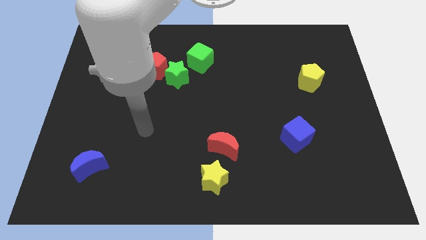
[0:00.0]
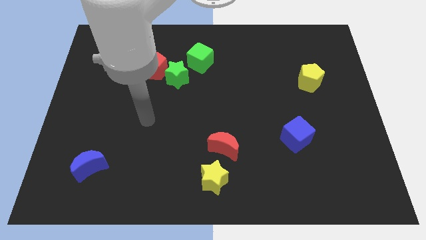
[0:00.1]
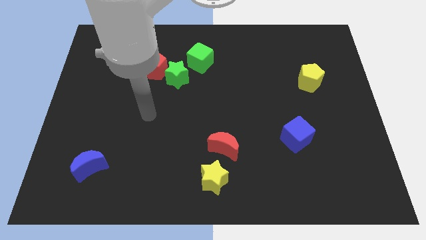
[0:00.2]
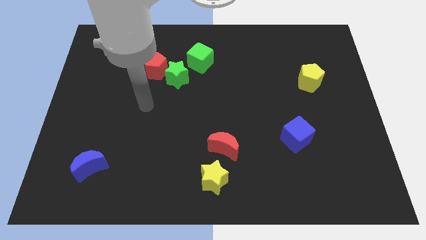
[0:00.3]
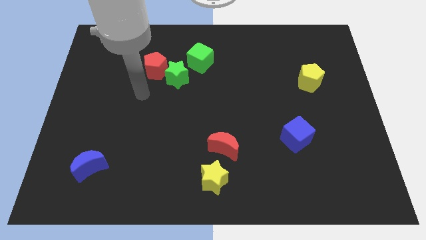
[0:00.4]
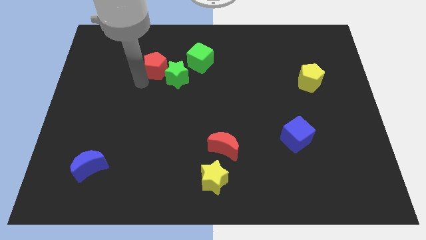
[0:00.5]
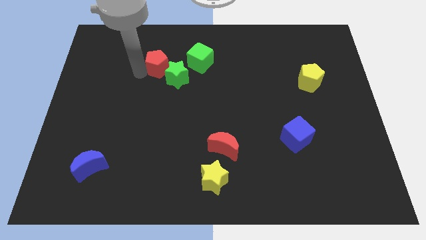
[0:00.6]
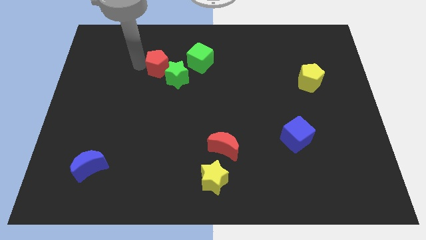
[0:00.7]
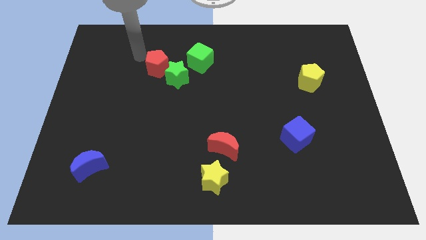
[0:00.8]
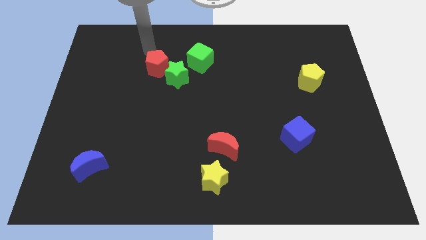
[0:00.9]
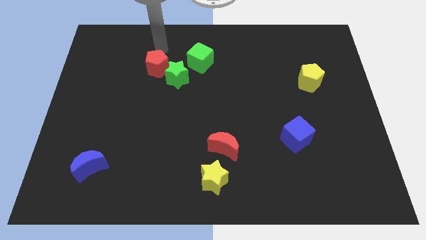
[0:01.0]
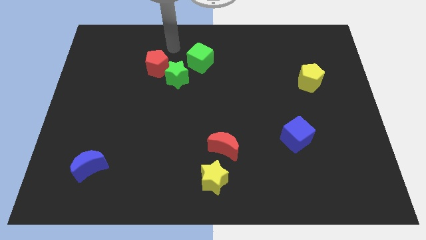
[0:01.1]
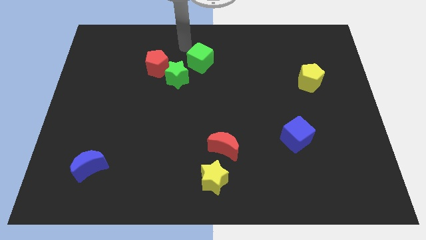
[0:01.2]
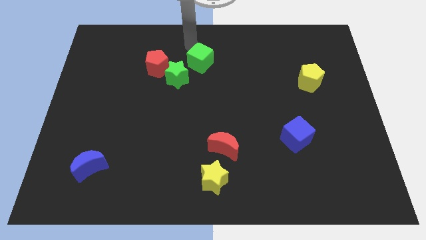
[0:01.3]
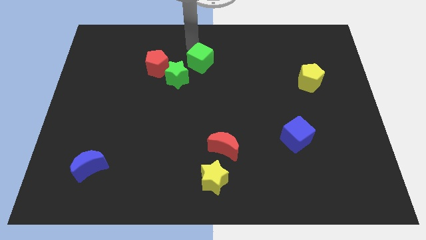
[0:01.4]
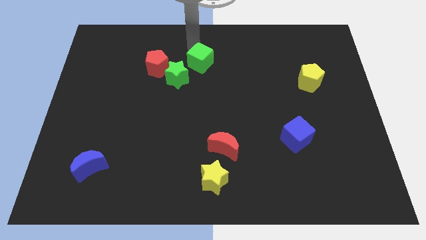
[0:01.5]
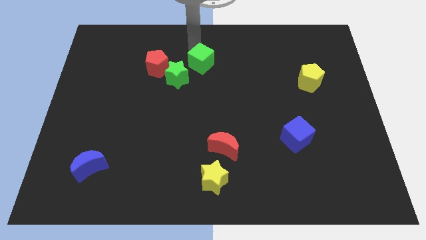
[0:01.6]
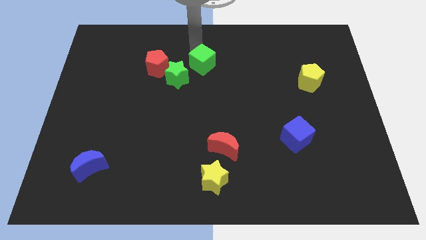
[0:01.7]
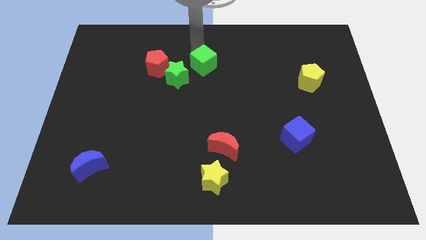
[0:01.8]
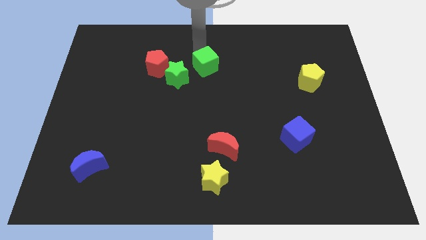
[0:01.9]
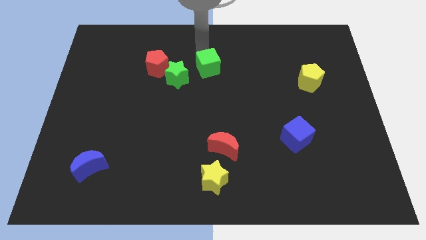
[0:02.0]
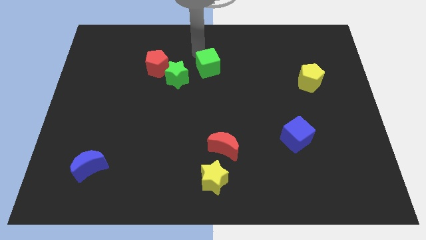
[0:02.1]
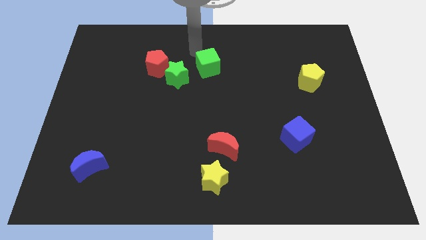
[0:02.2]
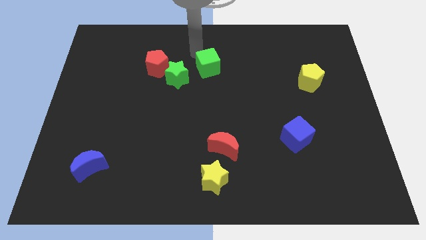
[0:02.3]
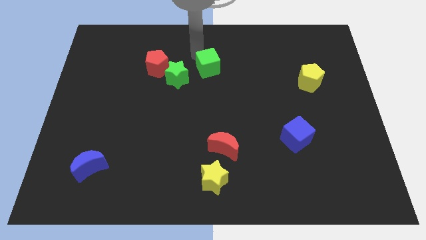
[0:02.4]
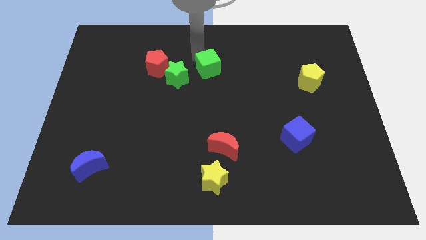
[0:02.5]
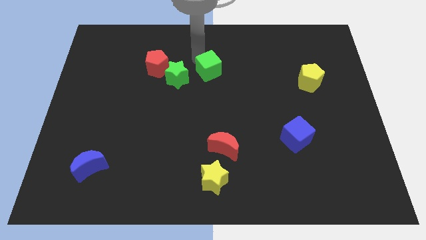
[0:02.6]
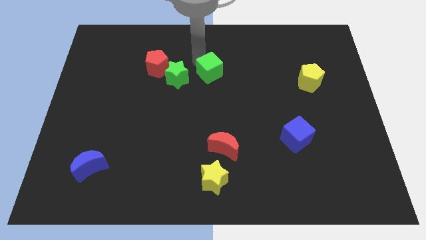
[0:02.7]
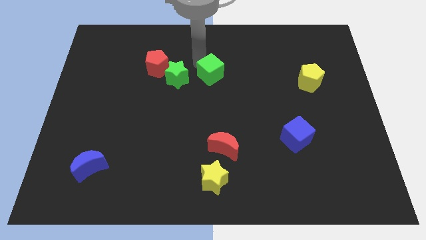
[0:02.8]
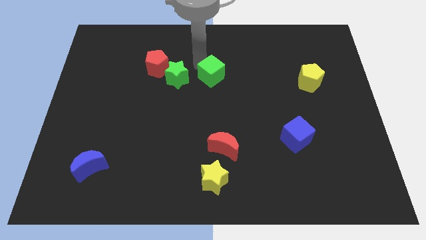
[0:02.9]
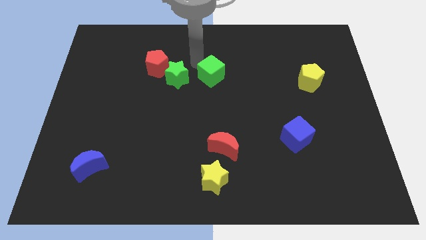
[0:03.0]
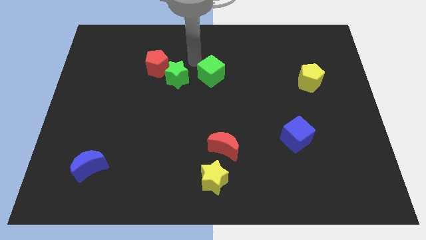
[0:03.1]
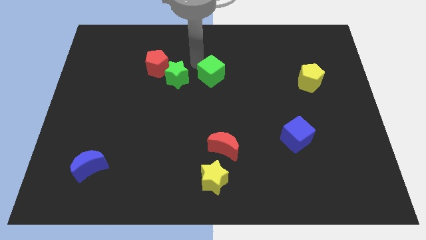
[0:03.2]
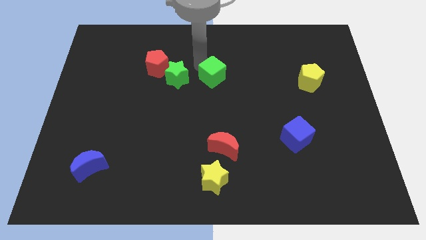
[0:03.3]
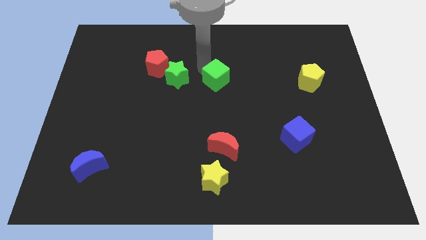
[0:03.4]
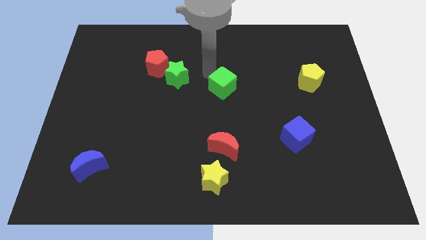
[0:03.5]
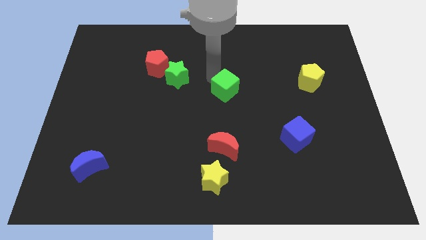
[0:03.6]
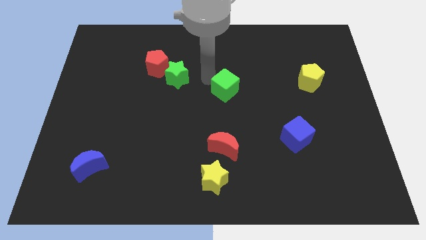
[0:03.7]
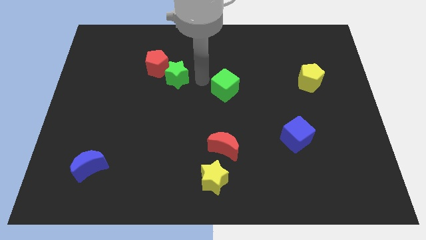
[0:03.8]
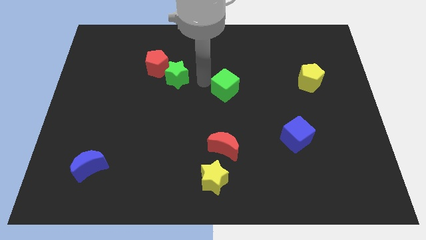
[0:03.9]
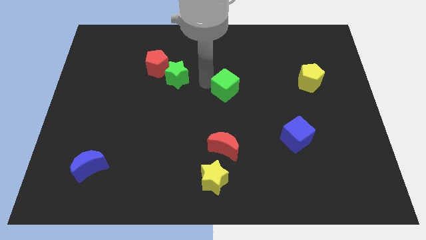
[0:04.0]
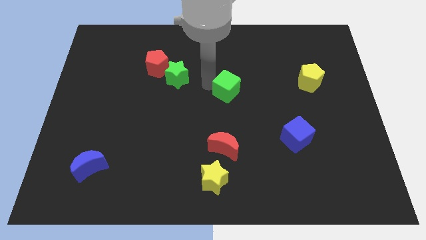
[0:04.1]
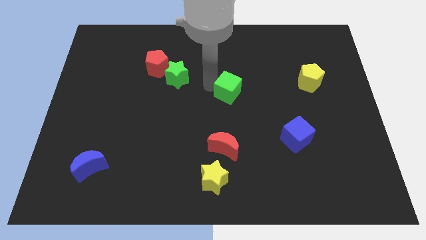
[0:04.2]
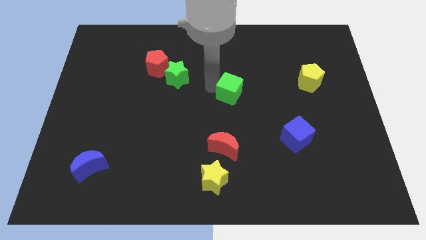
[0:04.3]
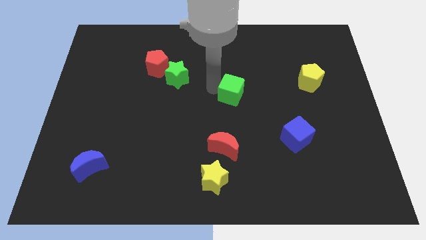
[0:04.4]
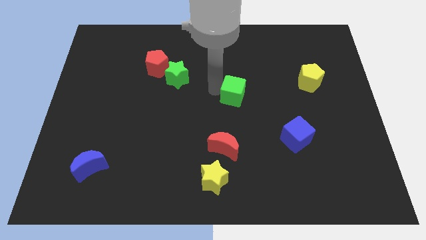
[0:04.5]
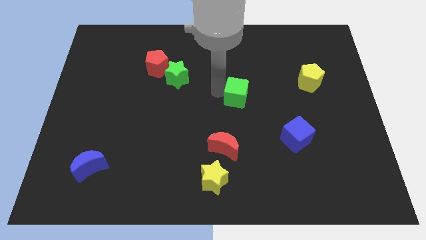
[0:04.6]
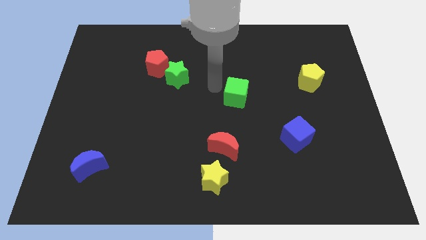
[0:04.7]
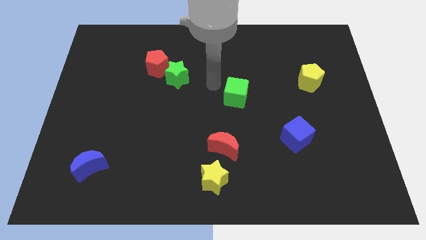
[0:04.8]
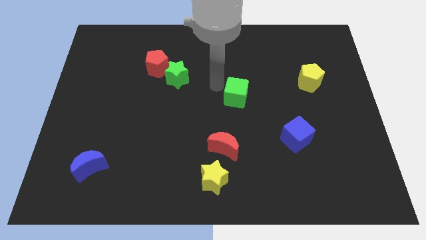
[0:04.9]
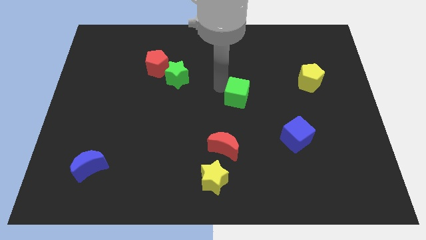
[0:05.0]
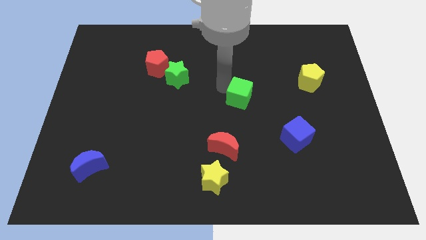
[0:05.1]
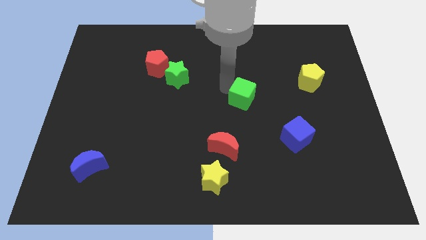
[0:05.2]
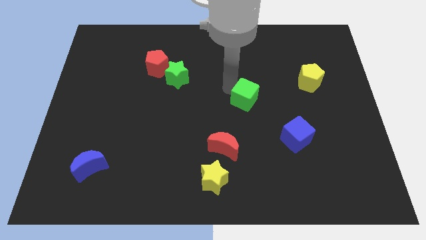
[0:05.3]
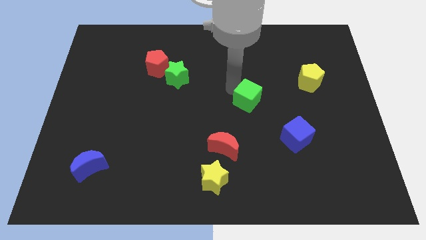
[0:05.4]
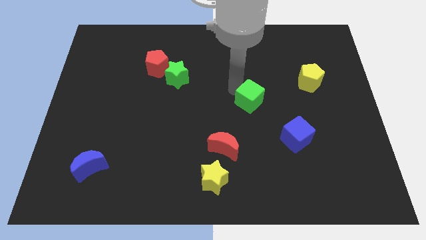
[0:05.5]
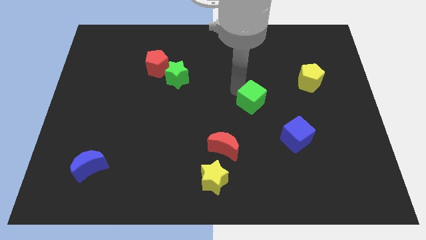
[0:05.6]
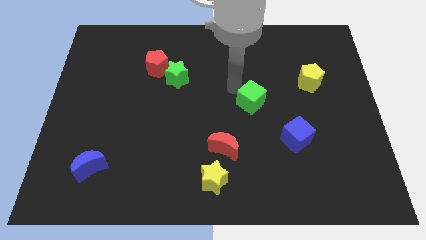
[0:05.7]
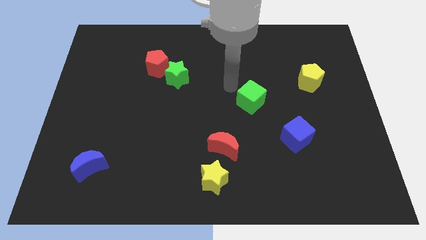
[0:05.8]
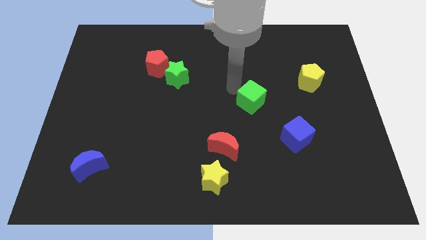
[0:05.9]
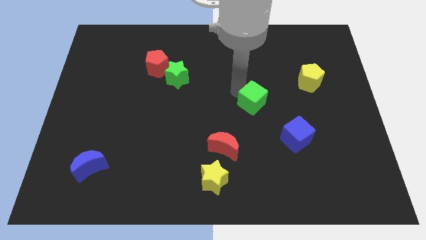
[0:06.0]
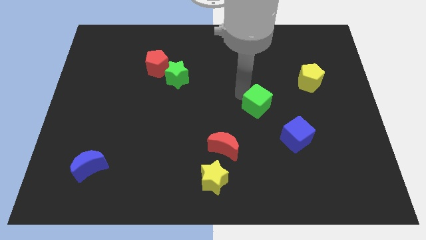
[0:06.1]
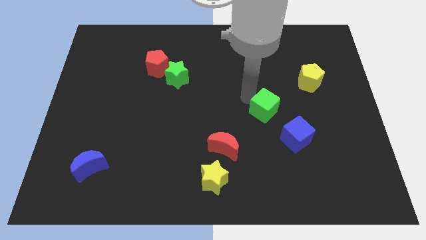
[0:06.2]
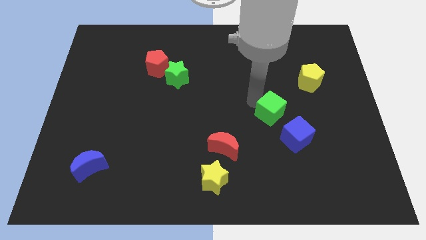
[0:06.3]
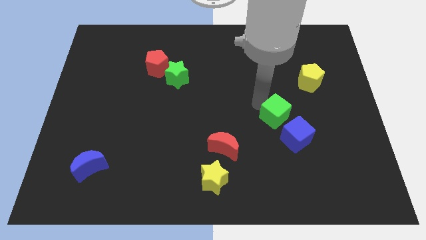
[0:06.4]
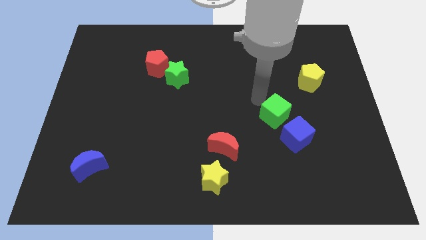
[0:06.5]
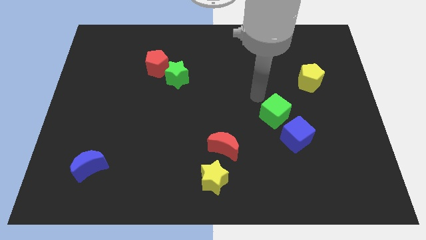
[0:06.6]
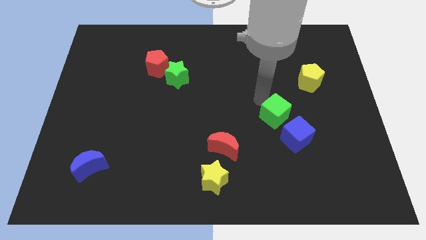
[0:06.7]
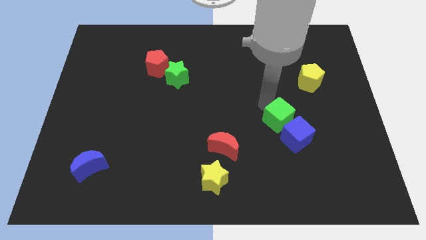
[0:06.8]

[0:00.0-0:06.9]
slide the green cube towards the blue cube
